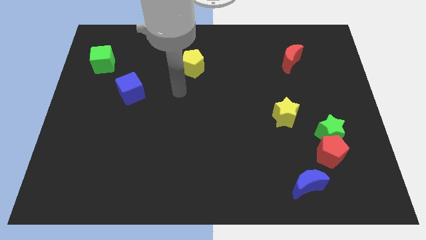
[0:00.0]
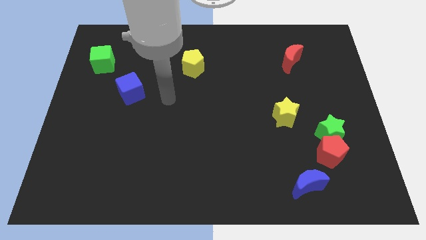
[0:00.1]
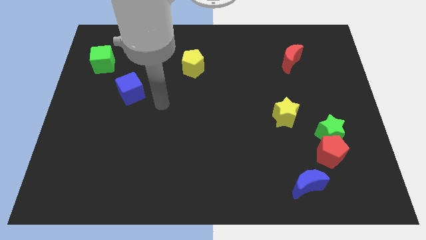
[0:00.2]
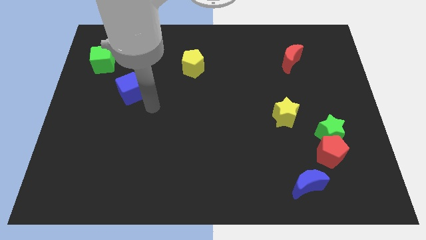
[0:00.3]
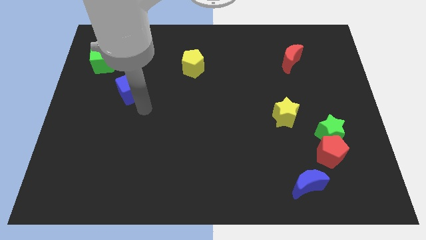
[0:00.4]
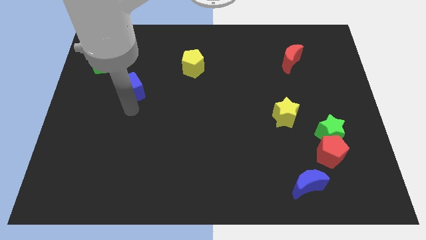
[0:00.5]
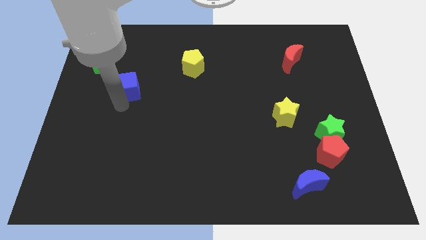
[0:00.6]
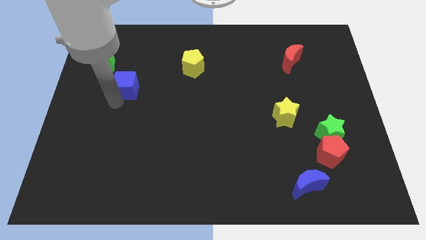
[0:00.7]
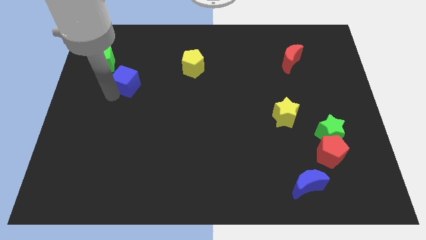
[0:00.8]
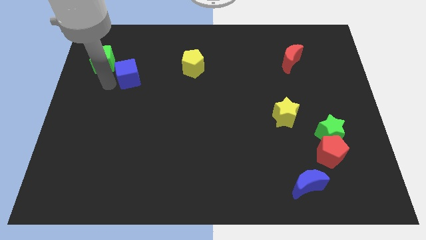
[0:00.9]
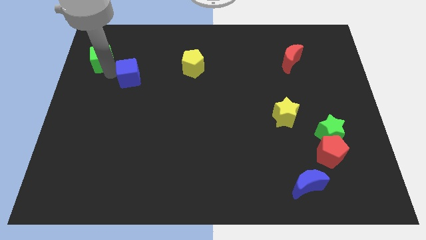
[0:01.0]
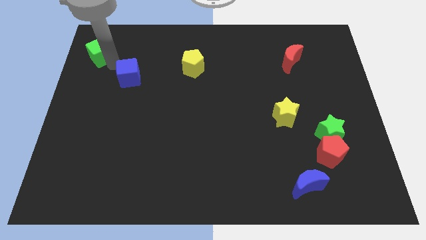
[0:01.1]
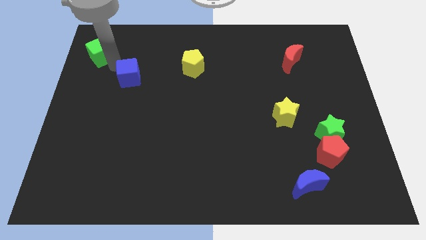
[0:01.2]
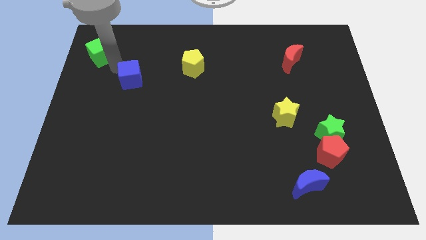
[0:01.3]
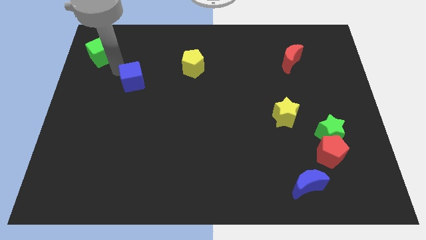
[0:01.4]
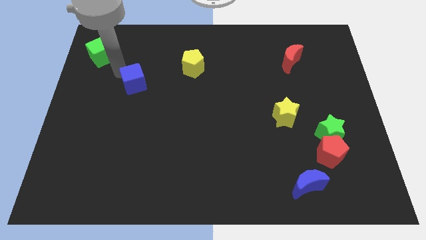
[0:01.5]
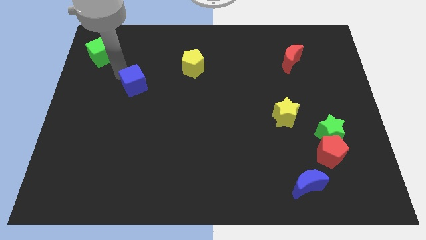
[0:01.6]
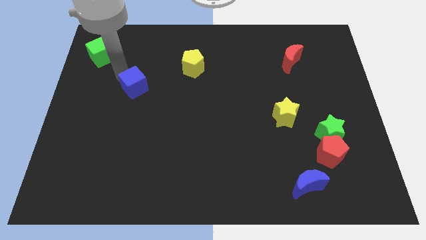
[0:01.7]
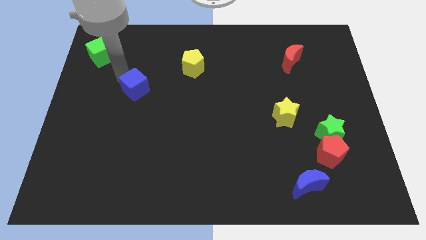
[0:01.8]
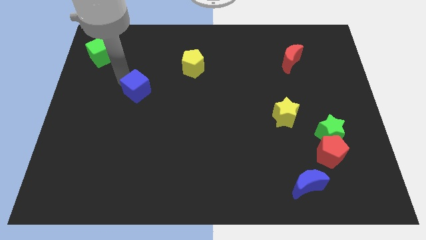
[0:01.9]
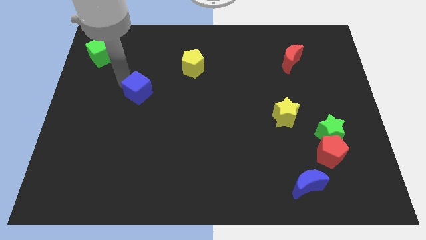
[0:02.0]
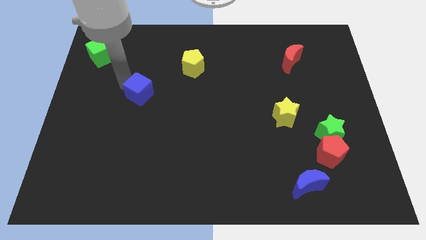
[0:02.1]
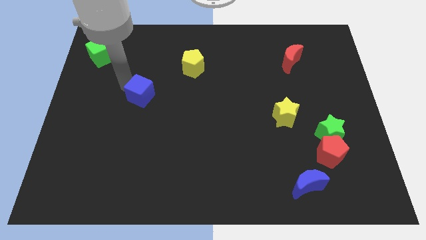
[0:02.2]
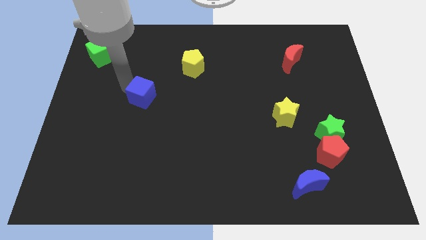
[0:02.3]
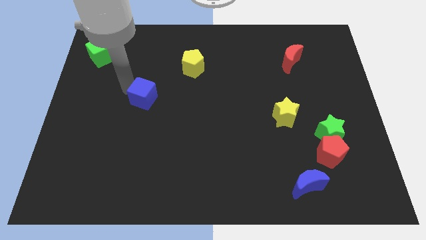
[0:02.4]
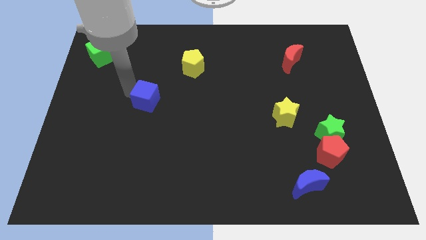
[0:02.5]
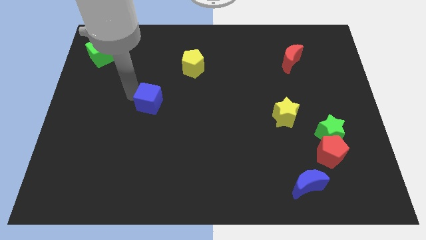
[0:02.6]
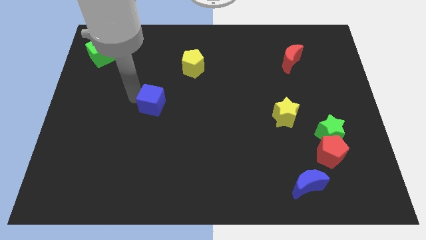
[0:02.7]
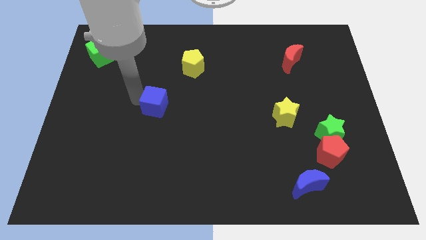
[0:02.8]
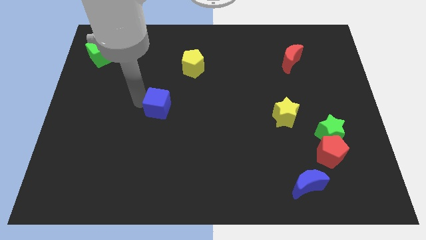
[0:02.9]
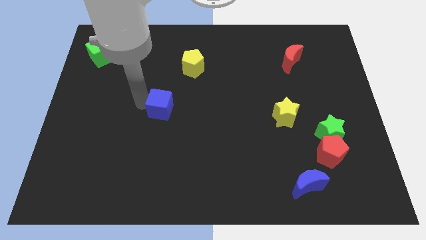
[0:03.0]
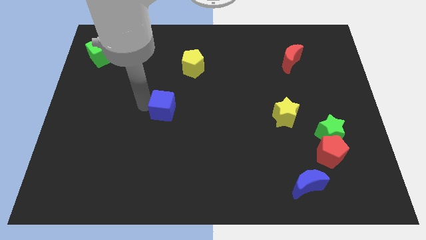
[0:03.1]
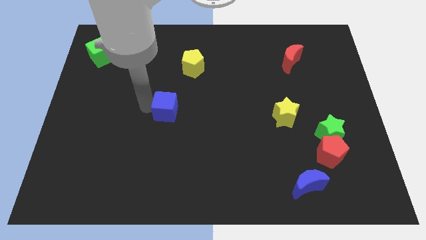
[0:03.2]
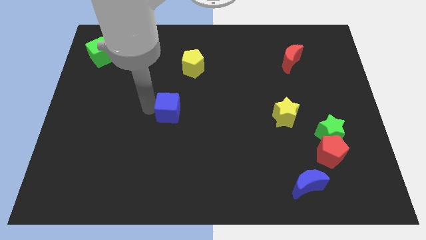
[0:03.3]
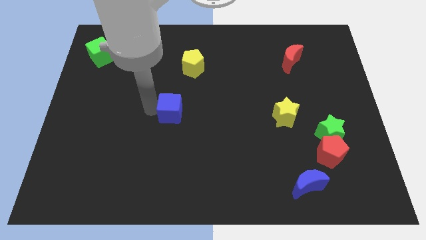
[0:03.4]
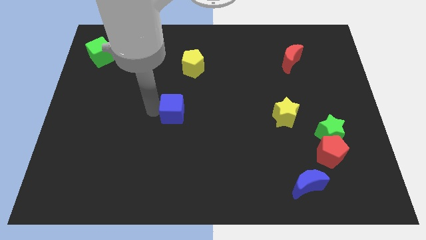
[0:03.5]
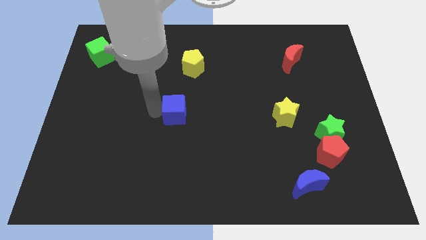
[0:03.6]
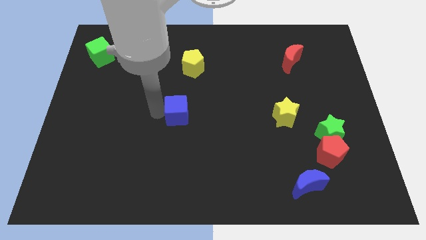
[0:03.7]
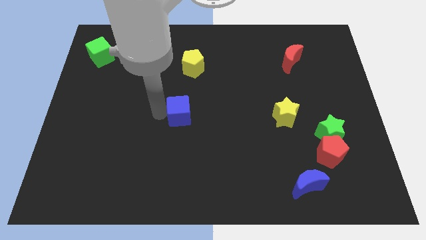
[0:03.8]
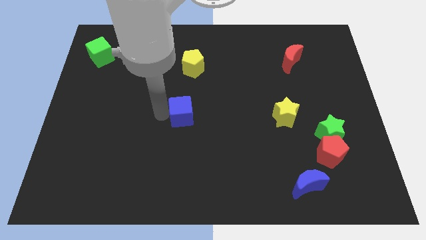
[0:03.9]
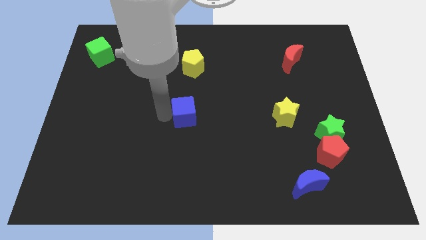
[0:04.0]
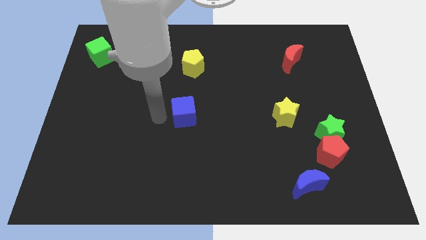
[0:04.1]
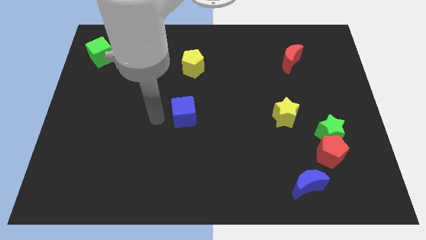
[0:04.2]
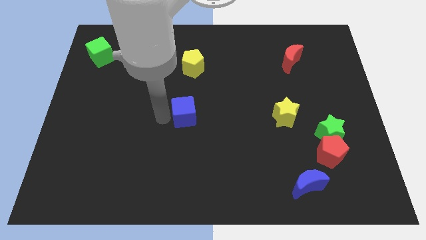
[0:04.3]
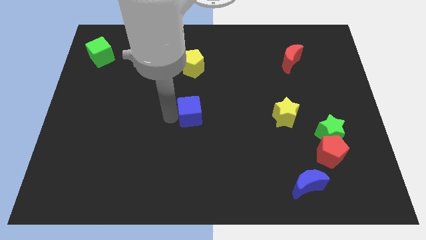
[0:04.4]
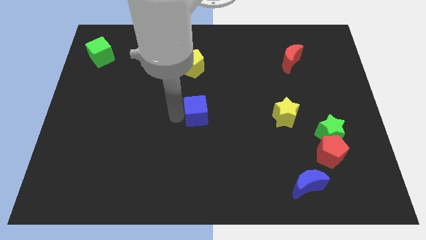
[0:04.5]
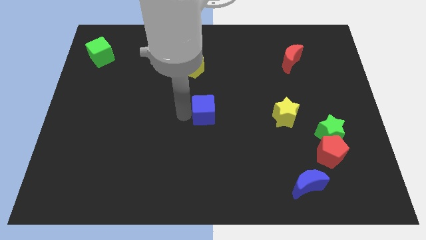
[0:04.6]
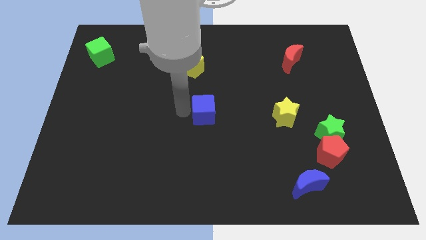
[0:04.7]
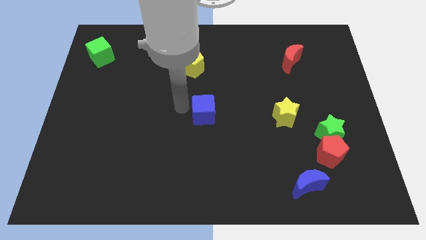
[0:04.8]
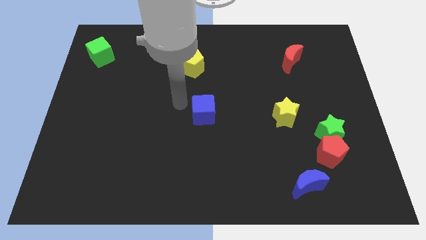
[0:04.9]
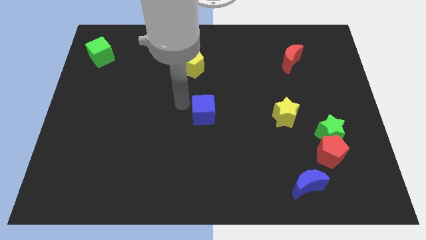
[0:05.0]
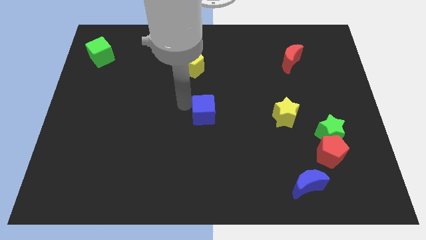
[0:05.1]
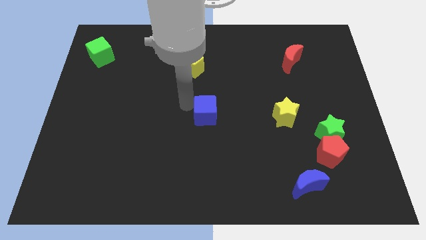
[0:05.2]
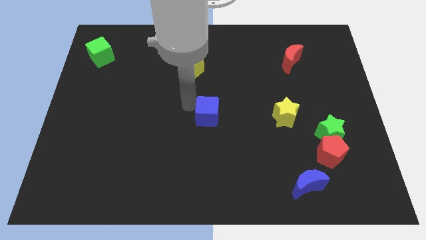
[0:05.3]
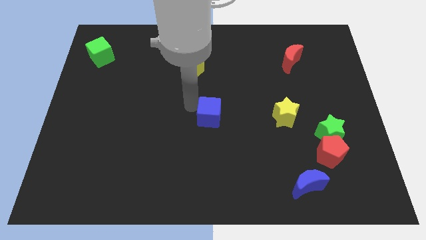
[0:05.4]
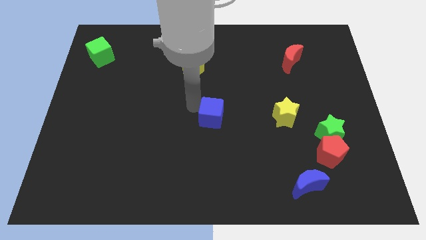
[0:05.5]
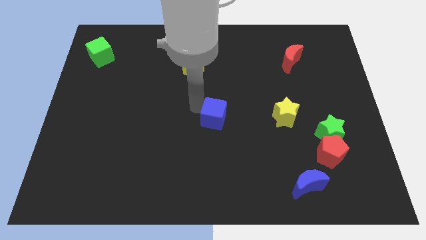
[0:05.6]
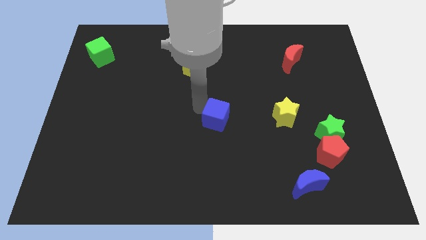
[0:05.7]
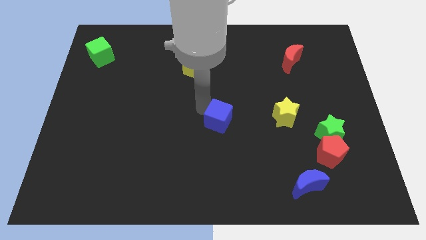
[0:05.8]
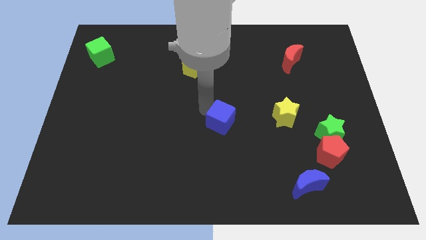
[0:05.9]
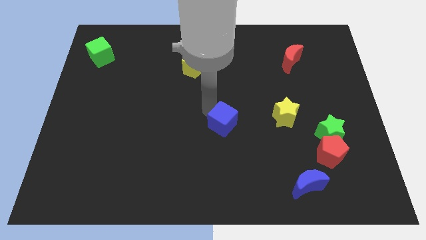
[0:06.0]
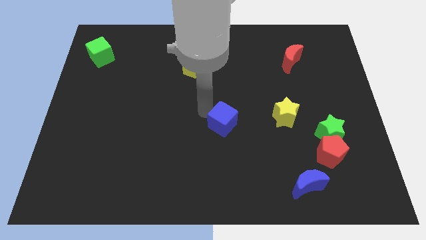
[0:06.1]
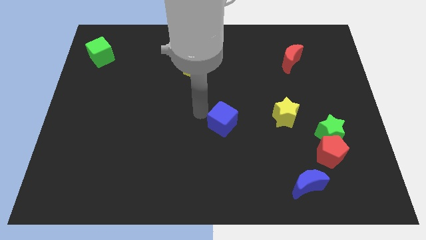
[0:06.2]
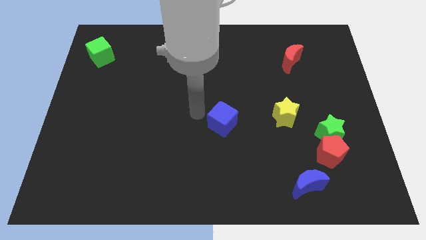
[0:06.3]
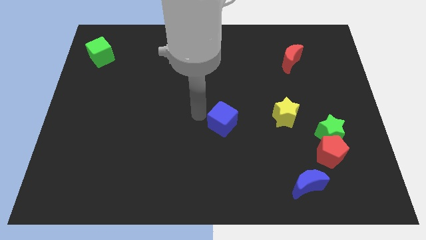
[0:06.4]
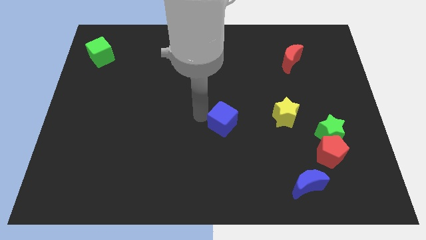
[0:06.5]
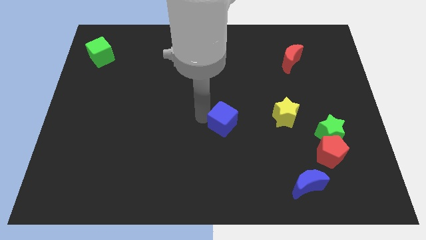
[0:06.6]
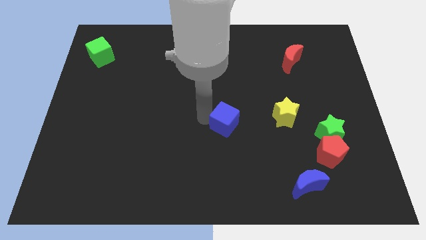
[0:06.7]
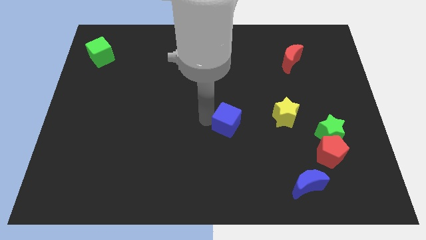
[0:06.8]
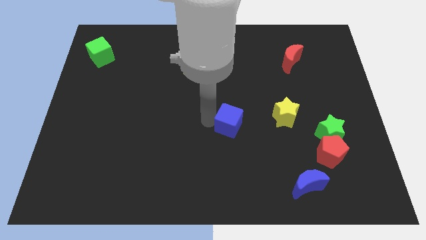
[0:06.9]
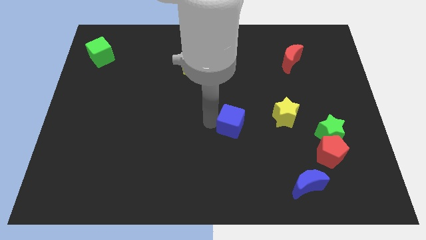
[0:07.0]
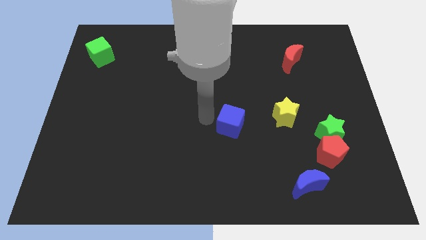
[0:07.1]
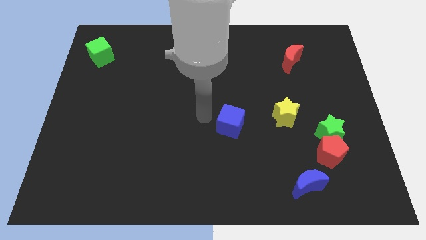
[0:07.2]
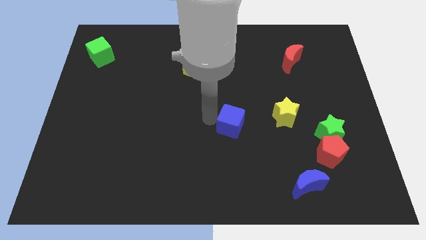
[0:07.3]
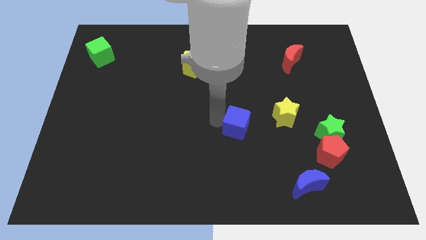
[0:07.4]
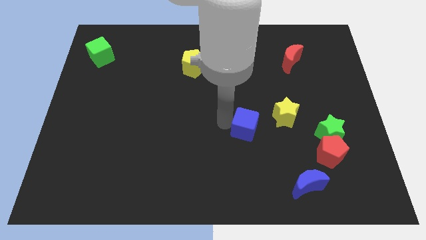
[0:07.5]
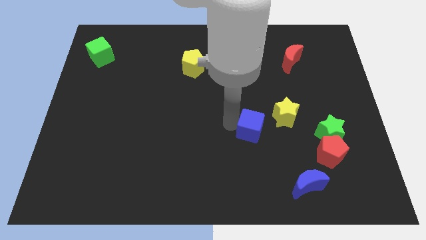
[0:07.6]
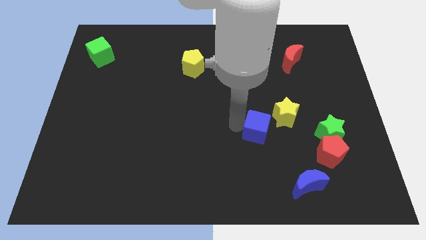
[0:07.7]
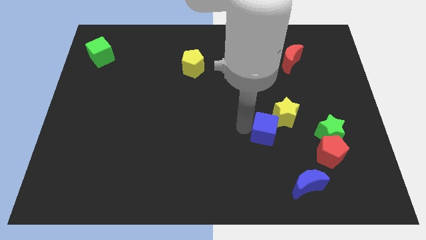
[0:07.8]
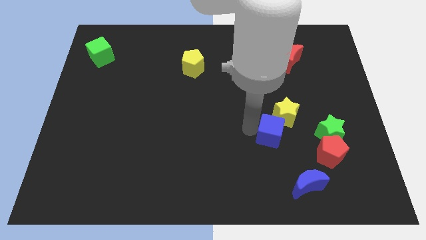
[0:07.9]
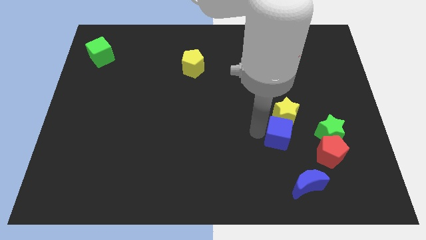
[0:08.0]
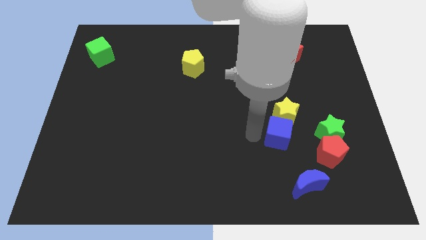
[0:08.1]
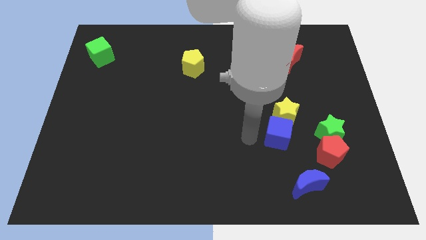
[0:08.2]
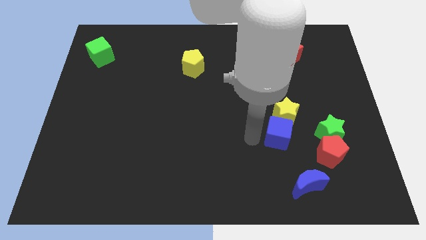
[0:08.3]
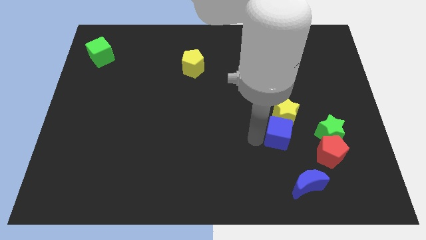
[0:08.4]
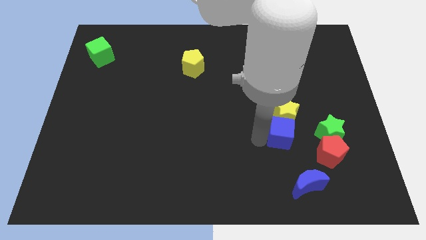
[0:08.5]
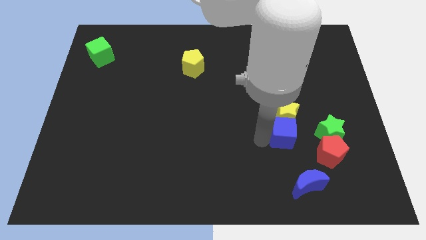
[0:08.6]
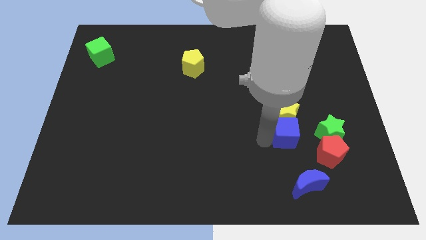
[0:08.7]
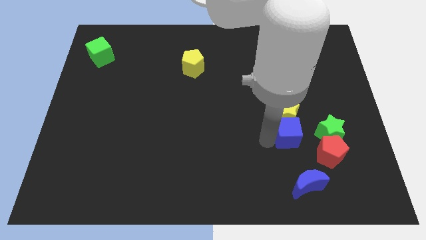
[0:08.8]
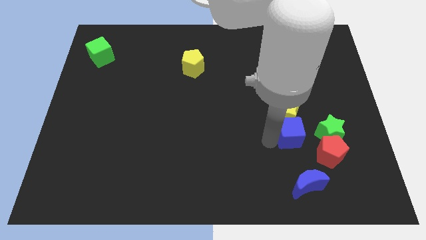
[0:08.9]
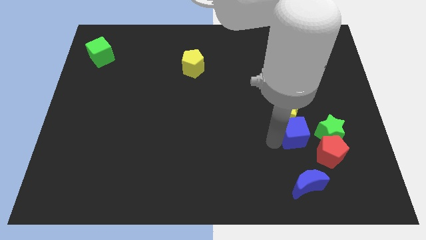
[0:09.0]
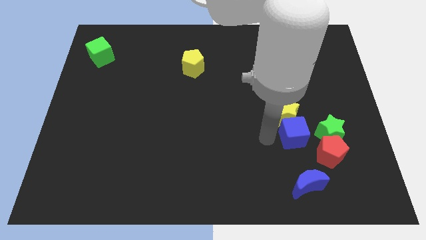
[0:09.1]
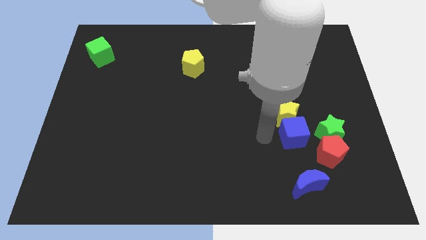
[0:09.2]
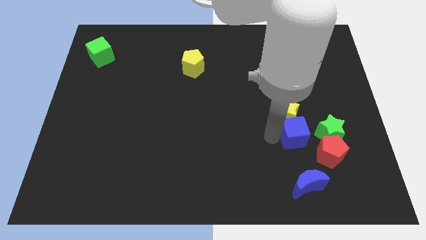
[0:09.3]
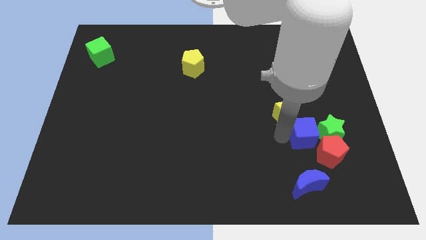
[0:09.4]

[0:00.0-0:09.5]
move the blue cube towards the green star
